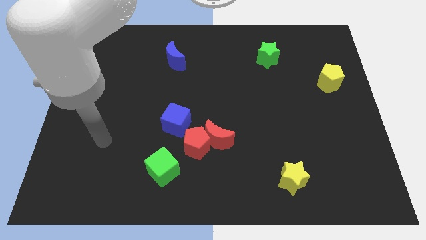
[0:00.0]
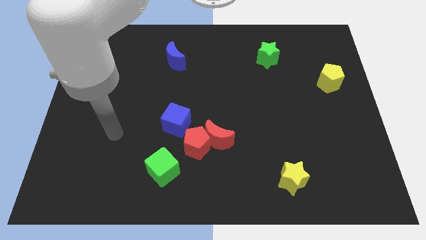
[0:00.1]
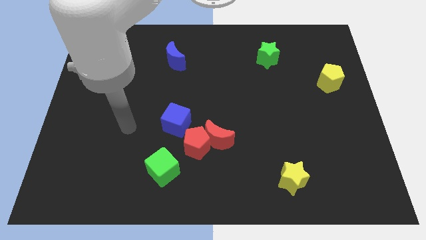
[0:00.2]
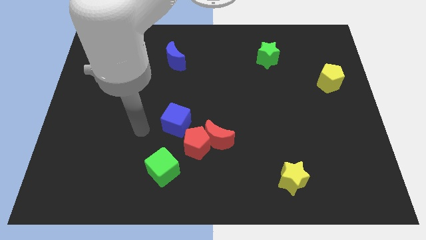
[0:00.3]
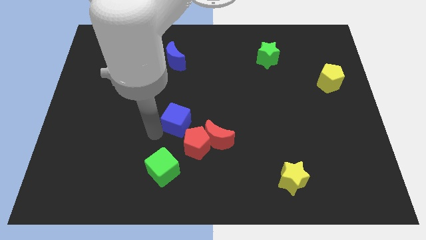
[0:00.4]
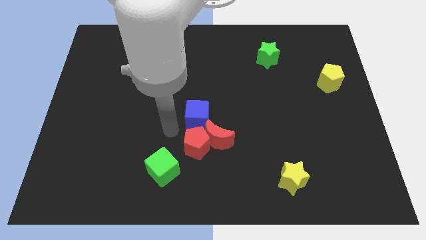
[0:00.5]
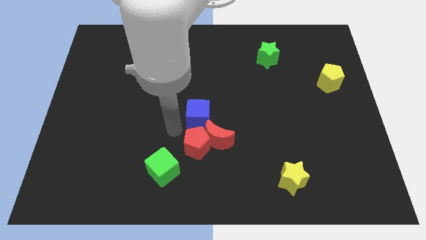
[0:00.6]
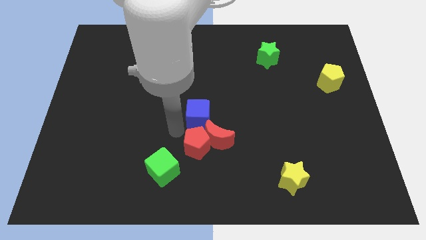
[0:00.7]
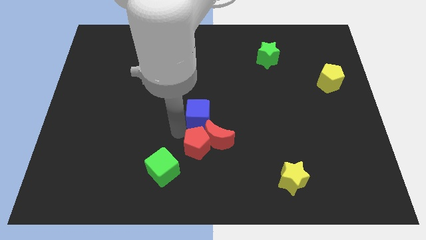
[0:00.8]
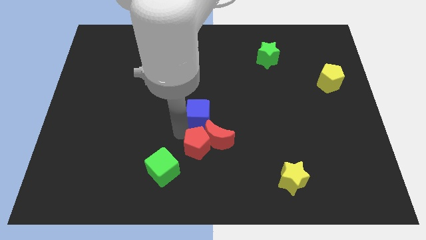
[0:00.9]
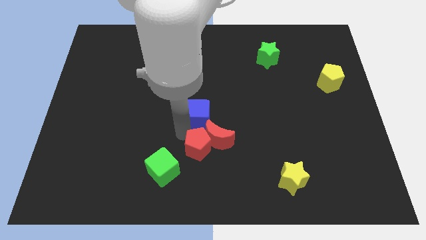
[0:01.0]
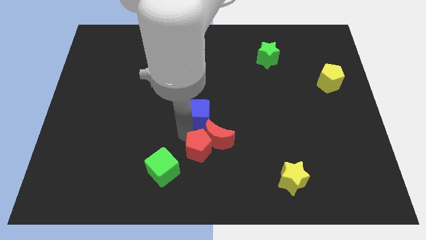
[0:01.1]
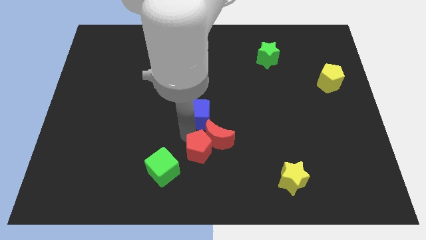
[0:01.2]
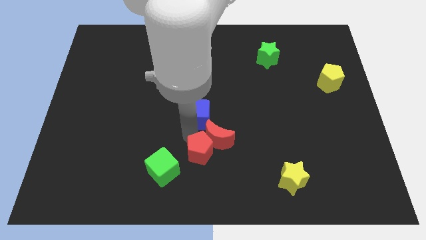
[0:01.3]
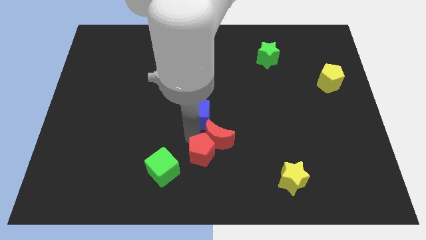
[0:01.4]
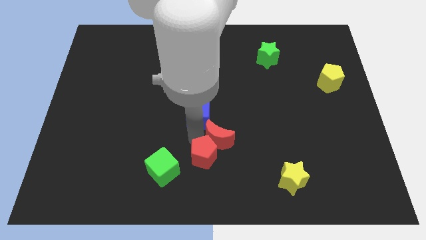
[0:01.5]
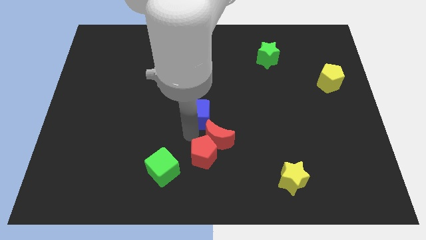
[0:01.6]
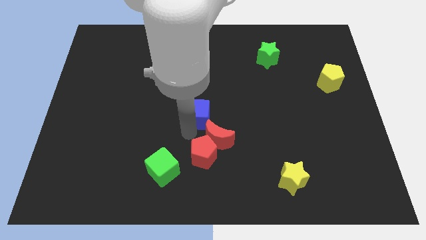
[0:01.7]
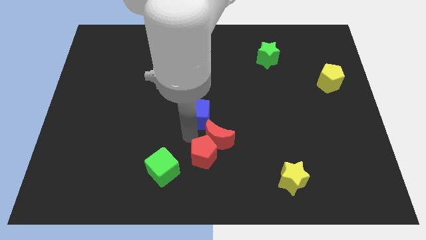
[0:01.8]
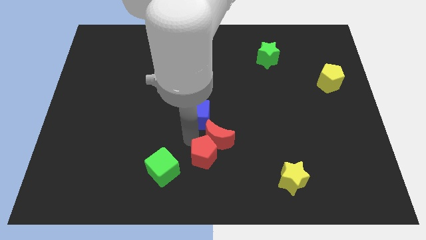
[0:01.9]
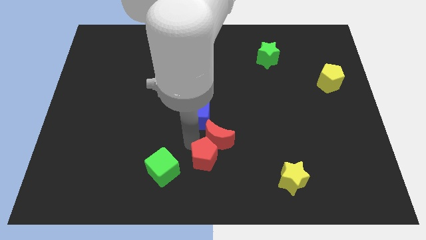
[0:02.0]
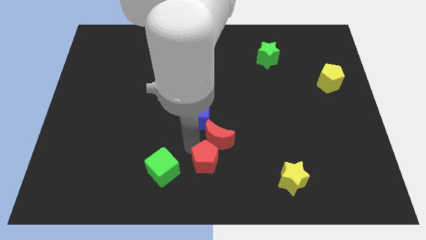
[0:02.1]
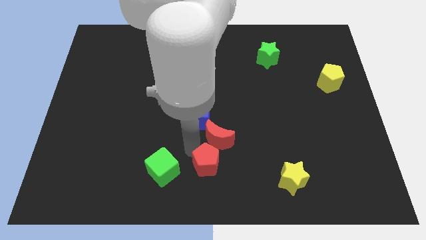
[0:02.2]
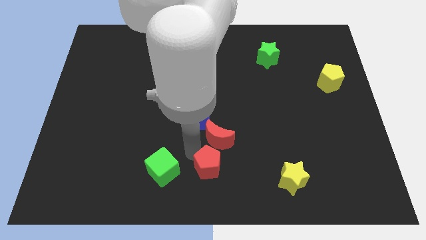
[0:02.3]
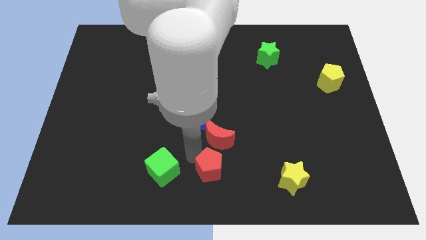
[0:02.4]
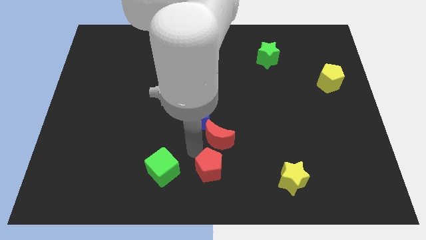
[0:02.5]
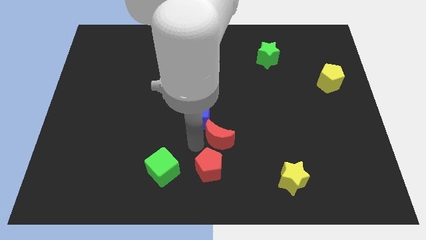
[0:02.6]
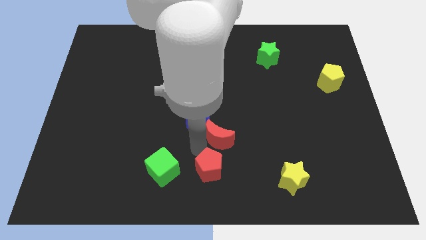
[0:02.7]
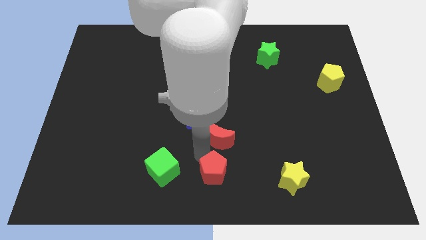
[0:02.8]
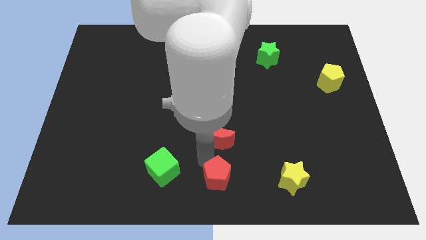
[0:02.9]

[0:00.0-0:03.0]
pull the red pentagon apart from the clump

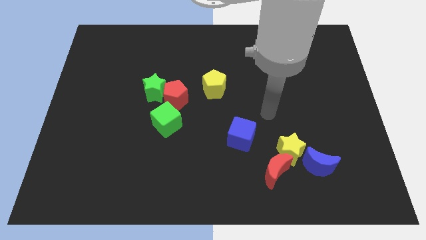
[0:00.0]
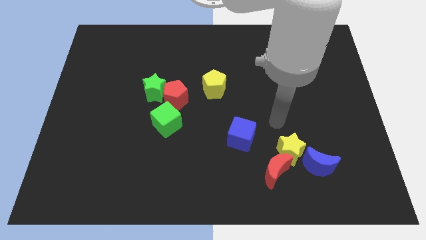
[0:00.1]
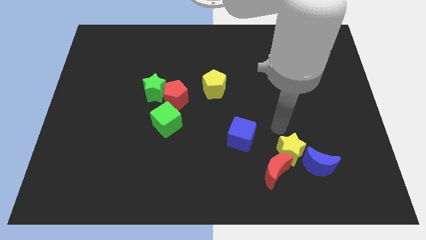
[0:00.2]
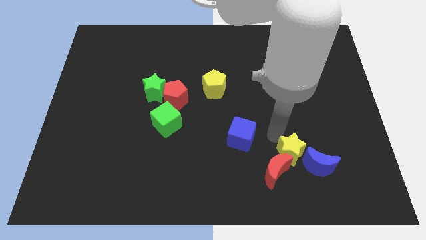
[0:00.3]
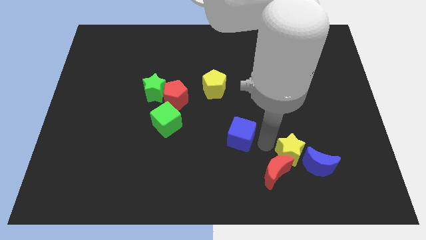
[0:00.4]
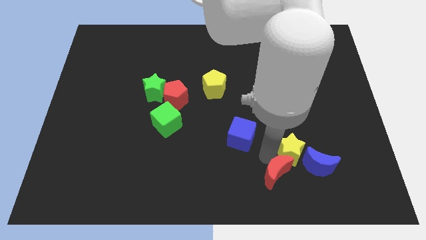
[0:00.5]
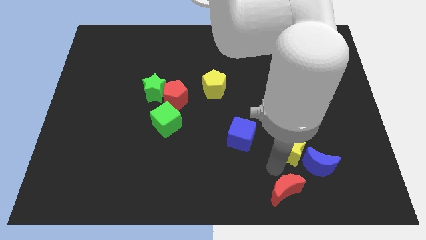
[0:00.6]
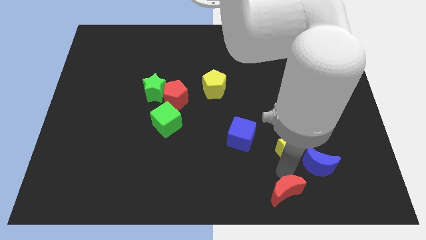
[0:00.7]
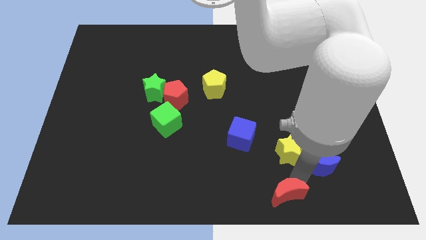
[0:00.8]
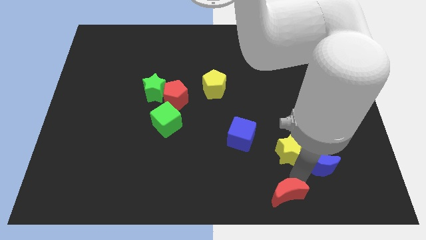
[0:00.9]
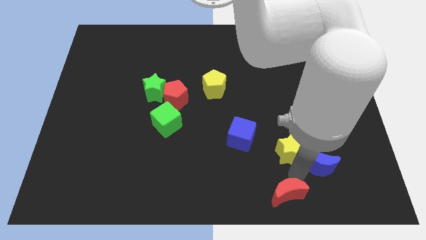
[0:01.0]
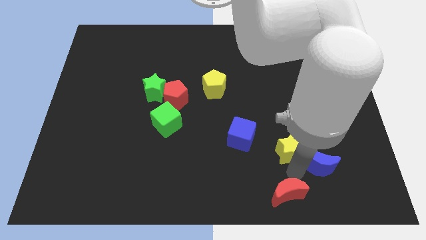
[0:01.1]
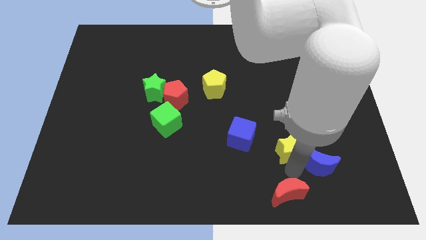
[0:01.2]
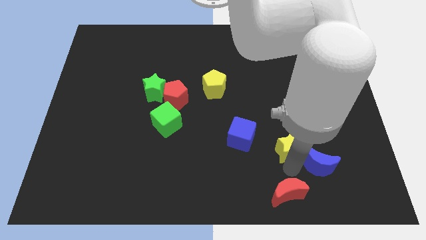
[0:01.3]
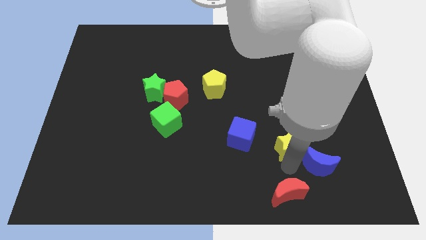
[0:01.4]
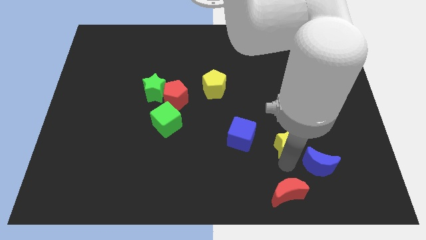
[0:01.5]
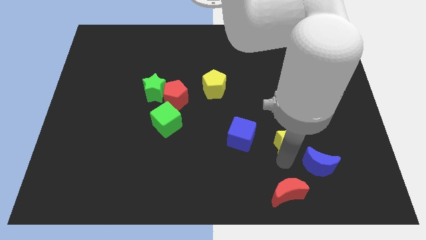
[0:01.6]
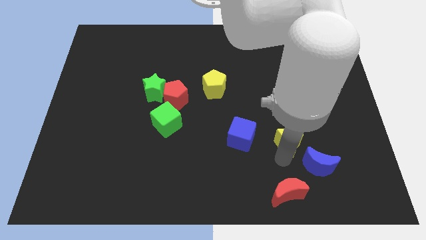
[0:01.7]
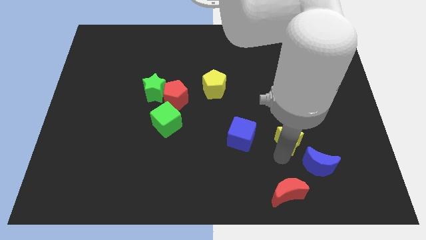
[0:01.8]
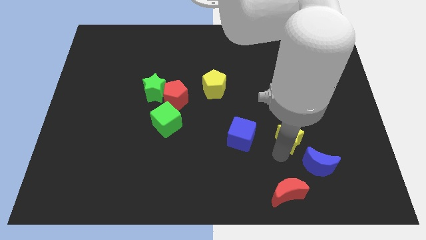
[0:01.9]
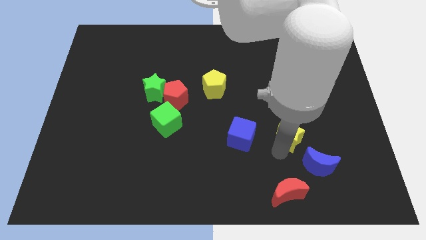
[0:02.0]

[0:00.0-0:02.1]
pull the yellow star apart from the red moon and blue moon

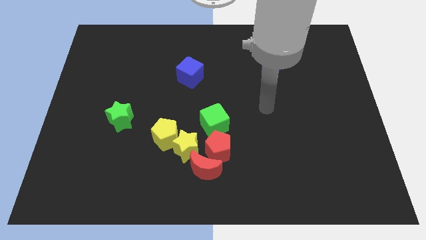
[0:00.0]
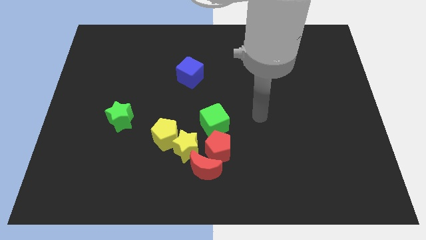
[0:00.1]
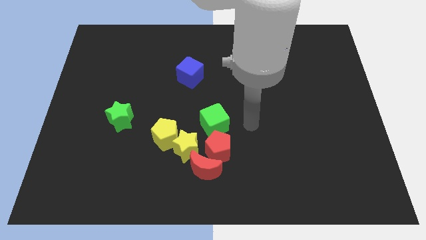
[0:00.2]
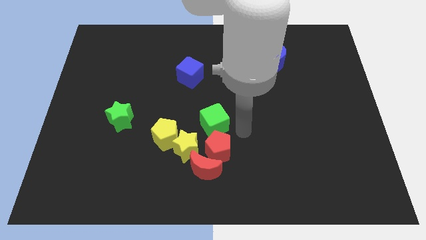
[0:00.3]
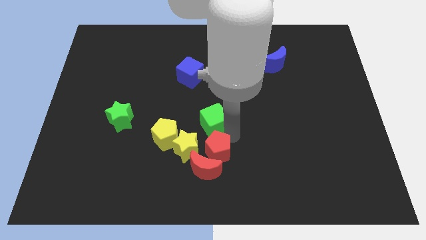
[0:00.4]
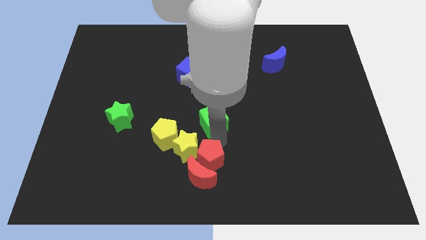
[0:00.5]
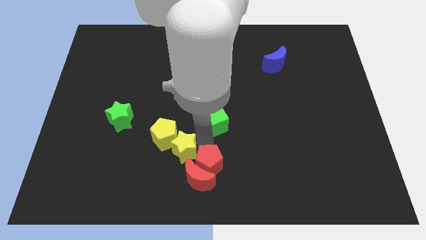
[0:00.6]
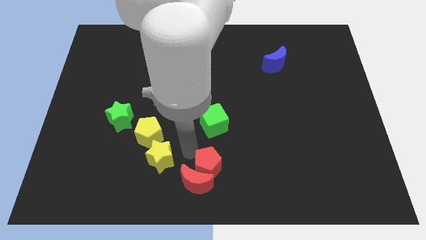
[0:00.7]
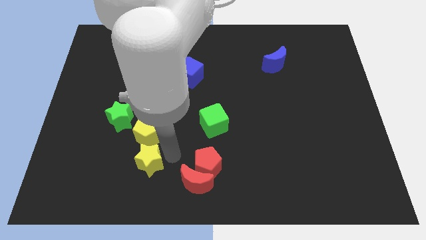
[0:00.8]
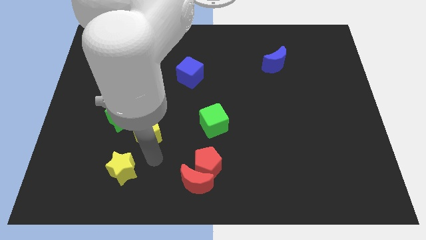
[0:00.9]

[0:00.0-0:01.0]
separate the yellow pentagon from the yellow star

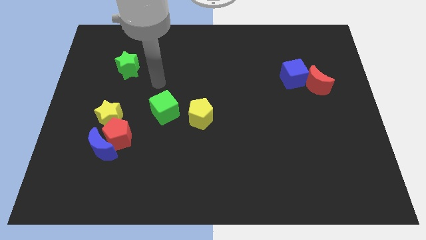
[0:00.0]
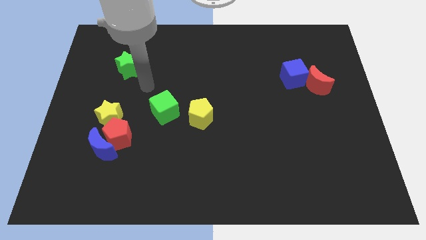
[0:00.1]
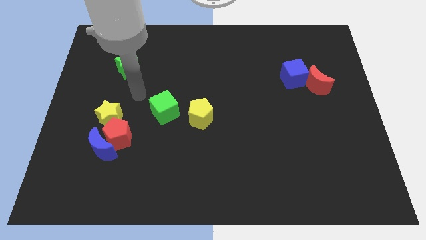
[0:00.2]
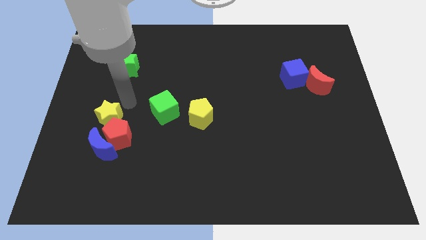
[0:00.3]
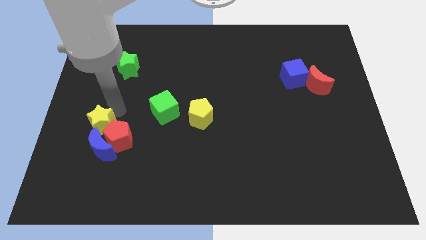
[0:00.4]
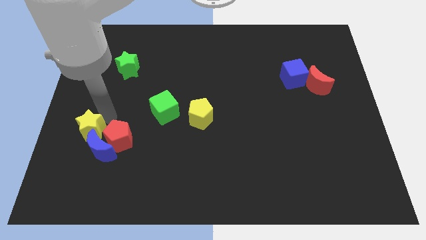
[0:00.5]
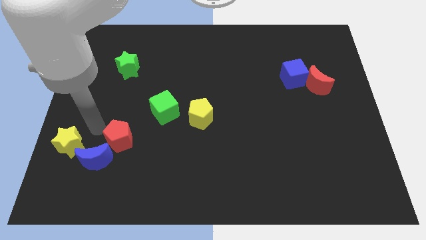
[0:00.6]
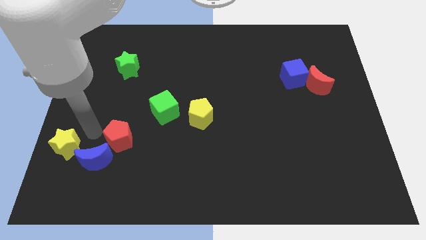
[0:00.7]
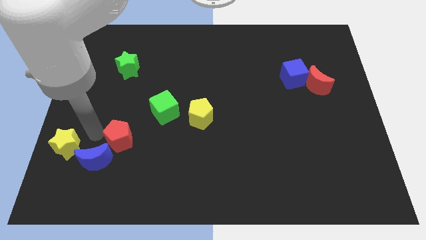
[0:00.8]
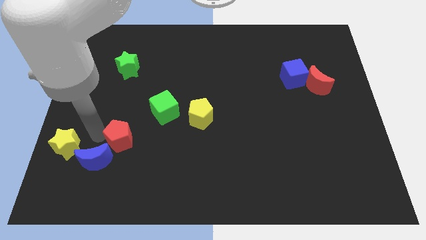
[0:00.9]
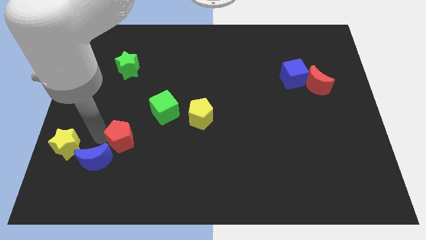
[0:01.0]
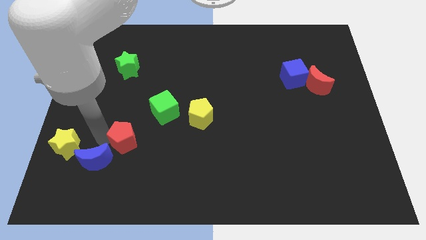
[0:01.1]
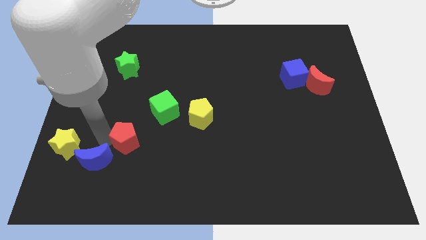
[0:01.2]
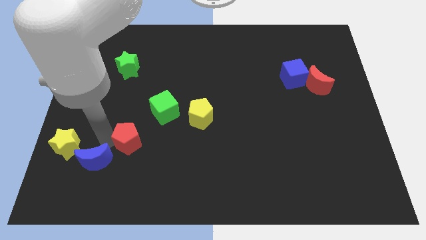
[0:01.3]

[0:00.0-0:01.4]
move the red pentagon away from the blue moon and yellow star

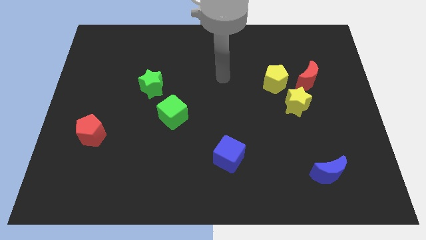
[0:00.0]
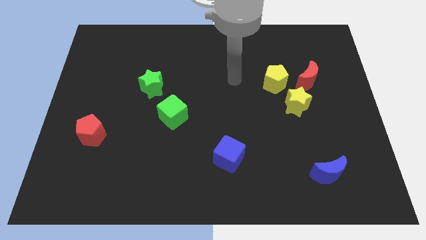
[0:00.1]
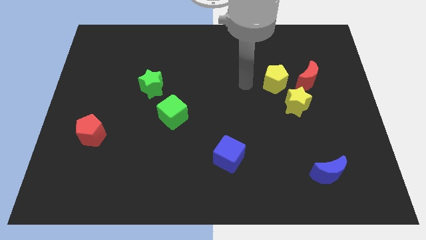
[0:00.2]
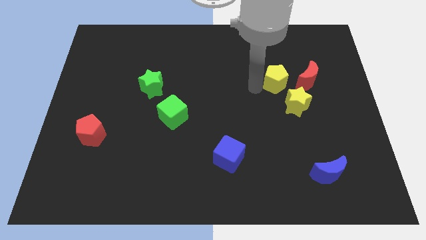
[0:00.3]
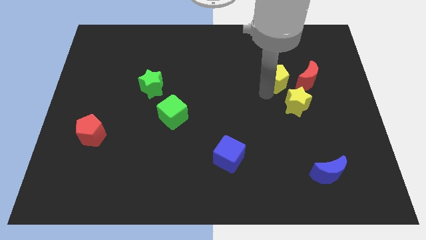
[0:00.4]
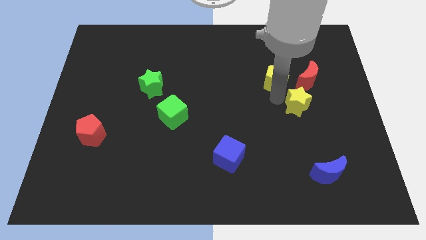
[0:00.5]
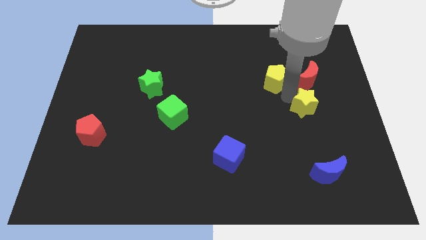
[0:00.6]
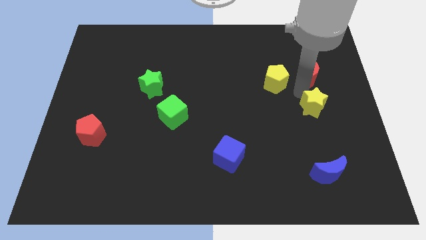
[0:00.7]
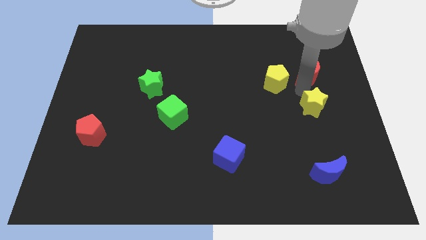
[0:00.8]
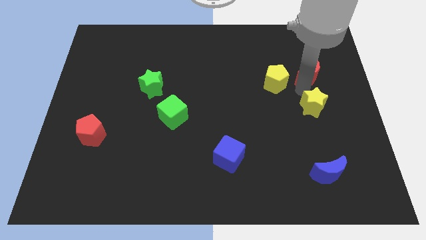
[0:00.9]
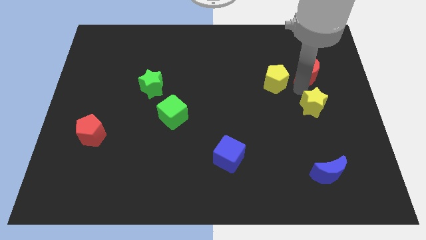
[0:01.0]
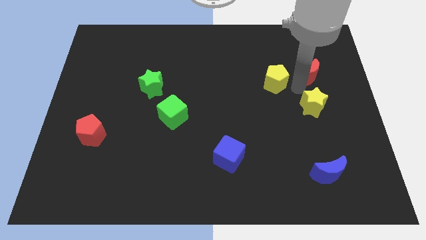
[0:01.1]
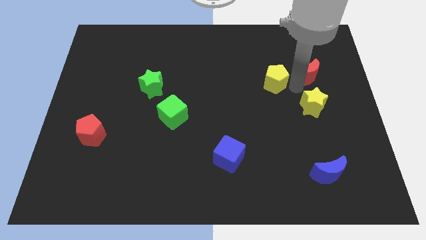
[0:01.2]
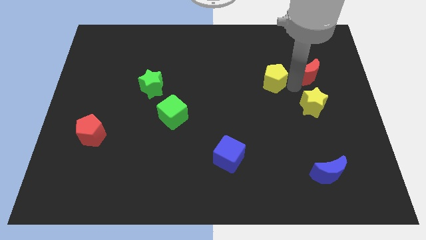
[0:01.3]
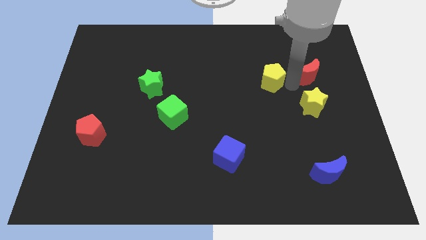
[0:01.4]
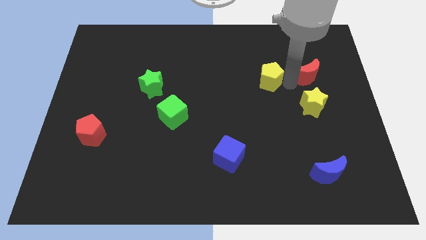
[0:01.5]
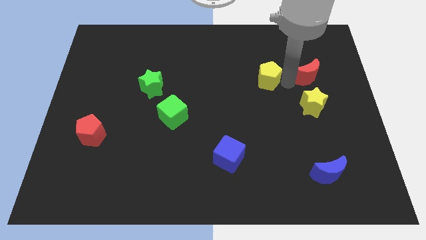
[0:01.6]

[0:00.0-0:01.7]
move the yellow pentagon away from the red moon and yellow star
